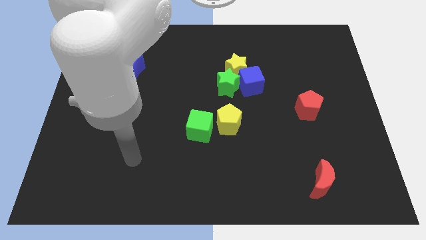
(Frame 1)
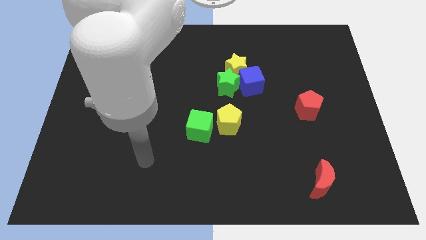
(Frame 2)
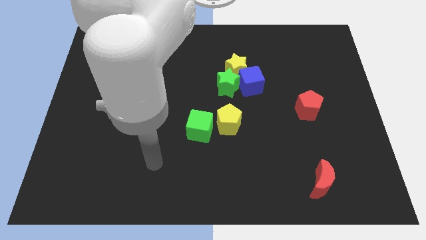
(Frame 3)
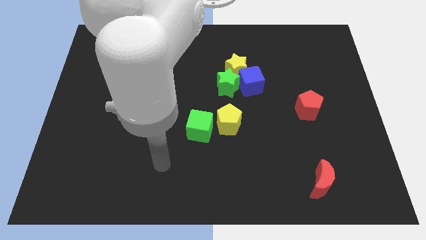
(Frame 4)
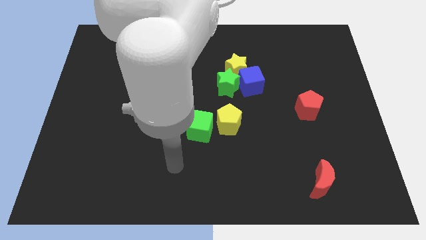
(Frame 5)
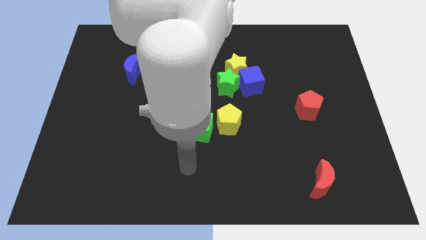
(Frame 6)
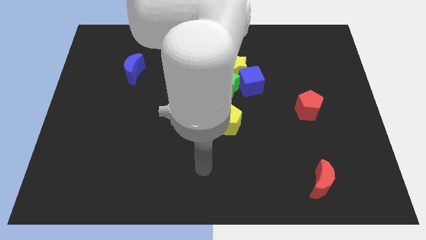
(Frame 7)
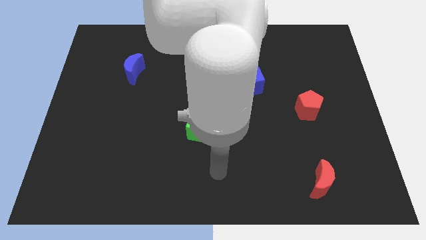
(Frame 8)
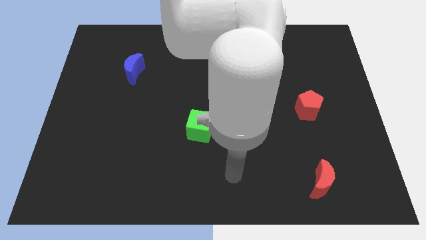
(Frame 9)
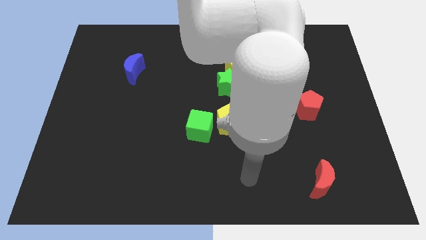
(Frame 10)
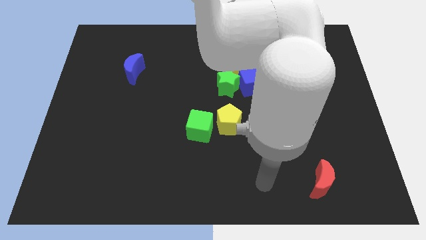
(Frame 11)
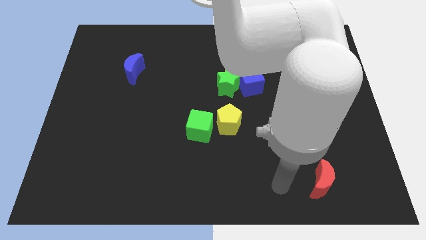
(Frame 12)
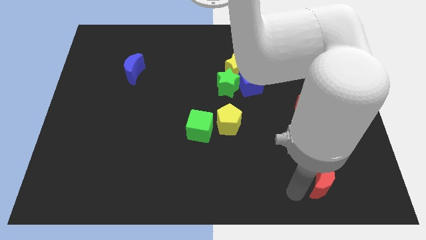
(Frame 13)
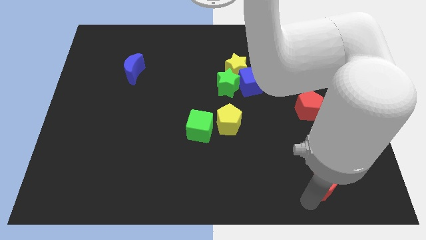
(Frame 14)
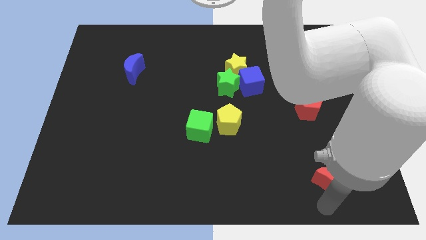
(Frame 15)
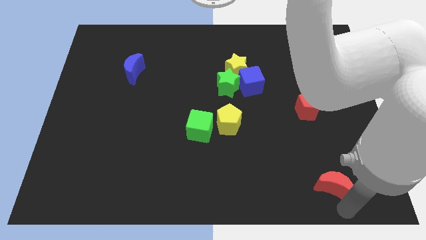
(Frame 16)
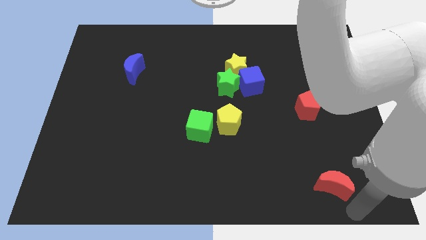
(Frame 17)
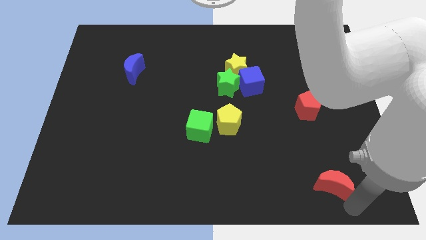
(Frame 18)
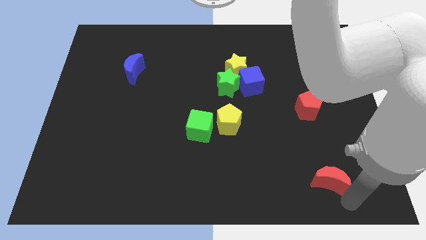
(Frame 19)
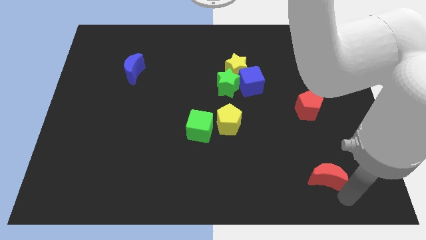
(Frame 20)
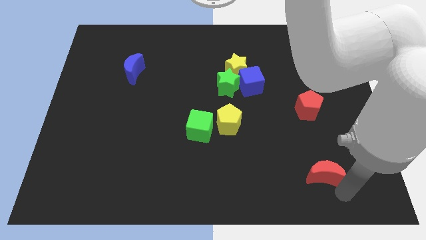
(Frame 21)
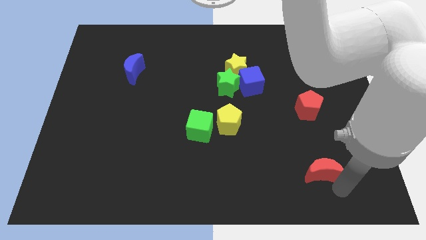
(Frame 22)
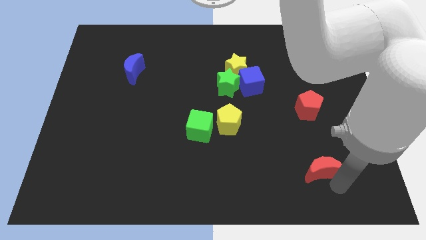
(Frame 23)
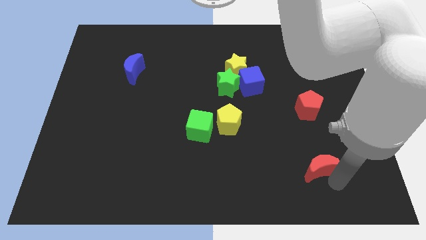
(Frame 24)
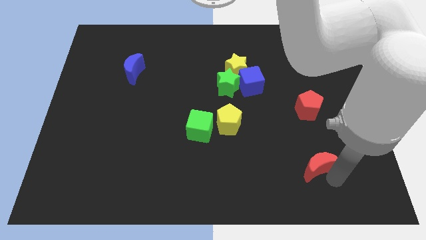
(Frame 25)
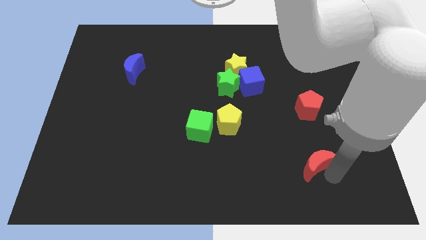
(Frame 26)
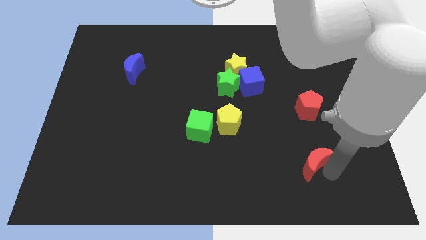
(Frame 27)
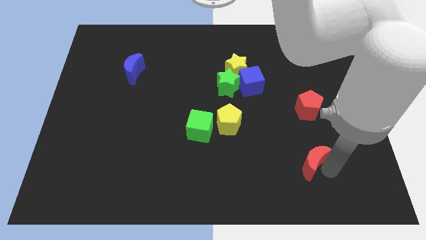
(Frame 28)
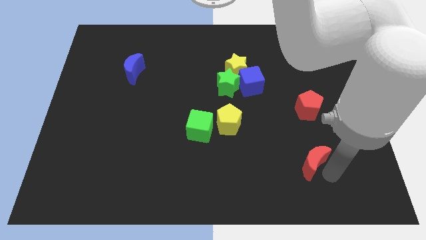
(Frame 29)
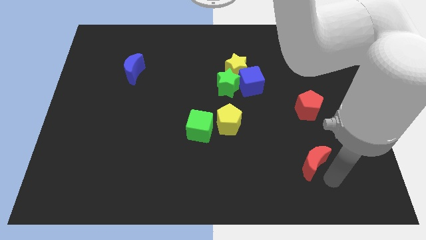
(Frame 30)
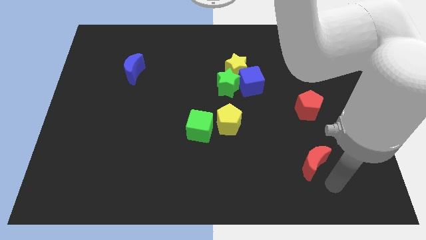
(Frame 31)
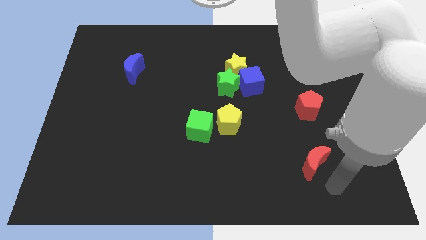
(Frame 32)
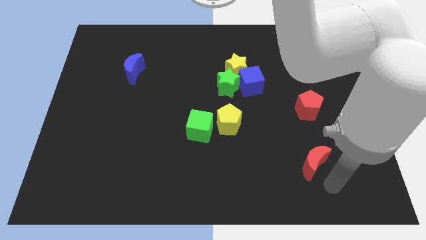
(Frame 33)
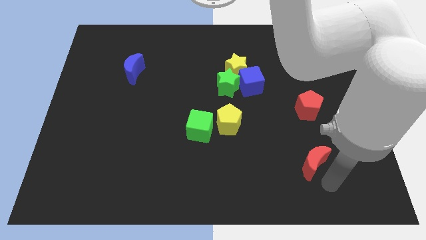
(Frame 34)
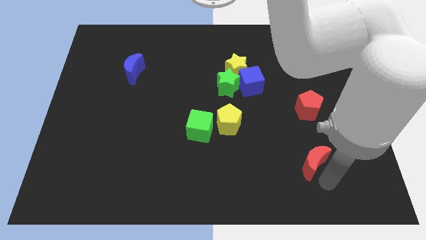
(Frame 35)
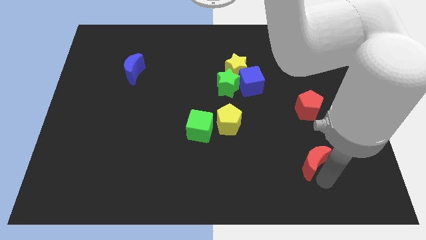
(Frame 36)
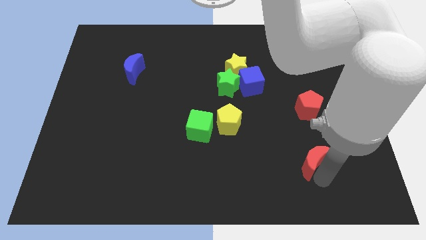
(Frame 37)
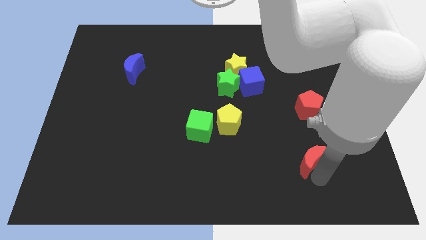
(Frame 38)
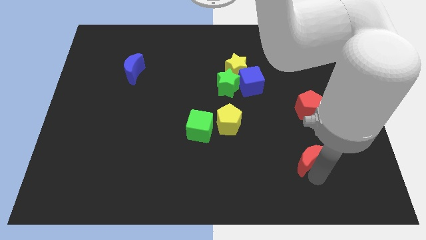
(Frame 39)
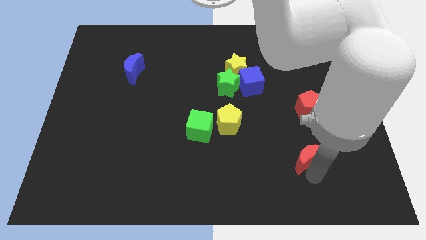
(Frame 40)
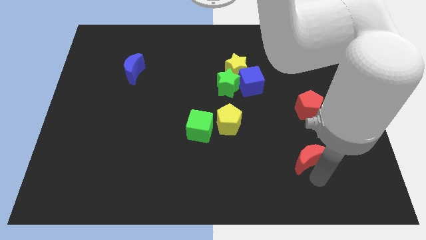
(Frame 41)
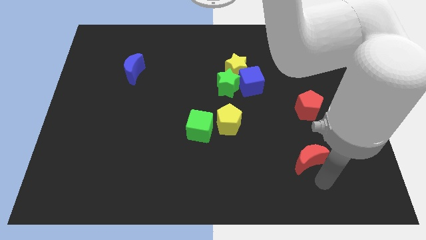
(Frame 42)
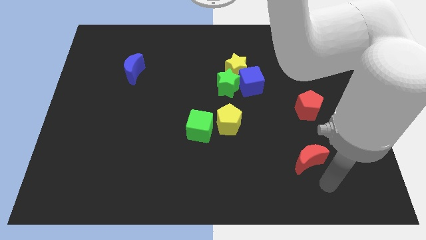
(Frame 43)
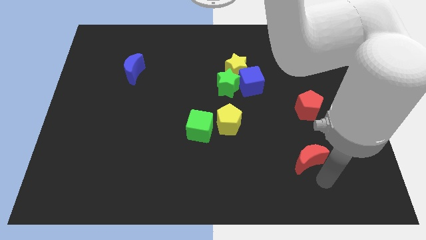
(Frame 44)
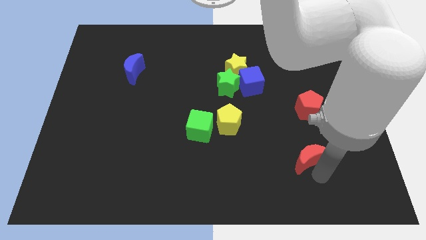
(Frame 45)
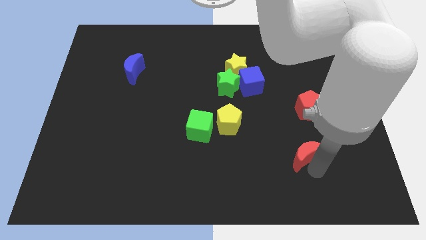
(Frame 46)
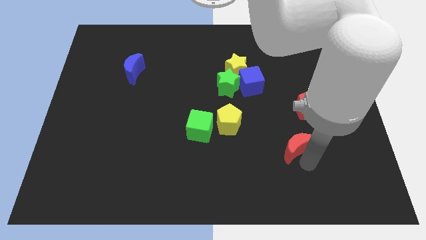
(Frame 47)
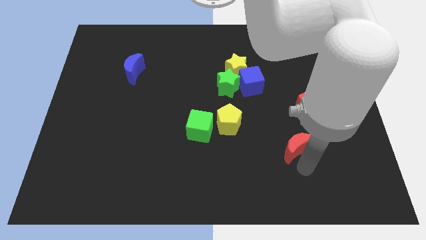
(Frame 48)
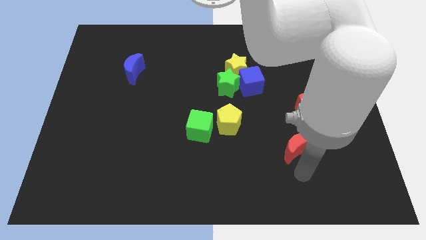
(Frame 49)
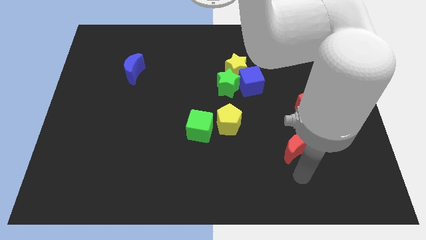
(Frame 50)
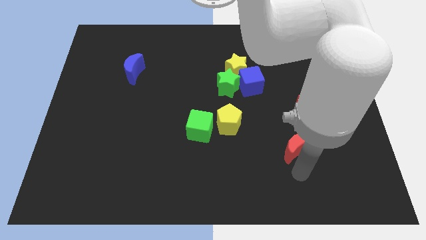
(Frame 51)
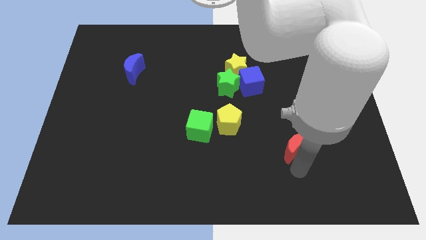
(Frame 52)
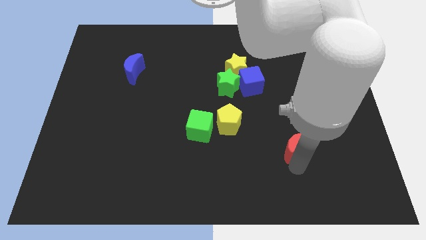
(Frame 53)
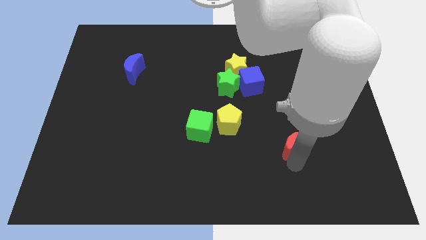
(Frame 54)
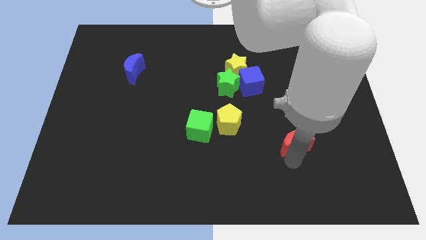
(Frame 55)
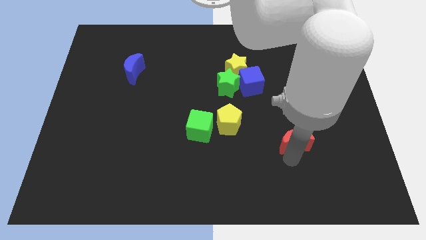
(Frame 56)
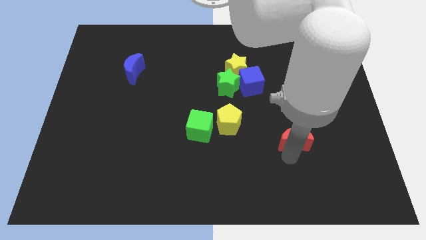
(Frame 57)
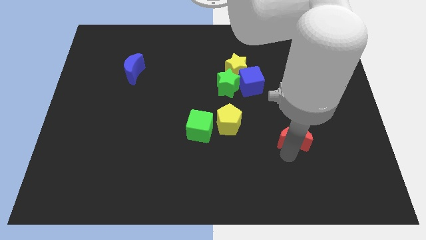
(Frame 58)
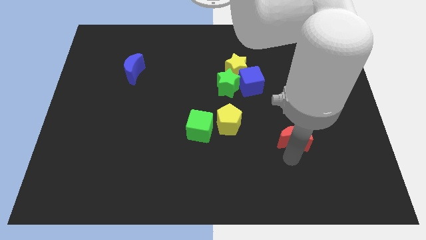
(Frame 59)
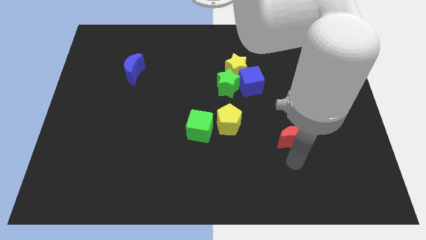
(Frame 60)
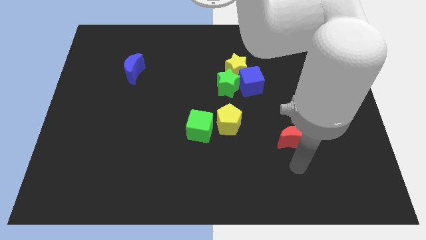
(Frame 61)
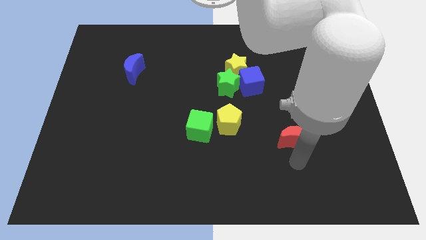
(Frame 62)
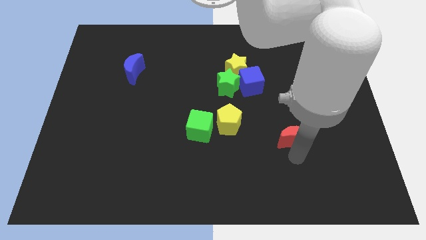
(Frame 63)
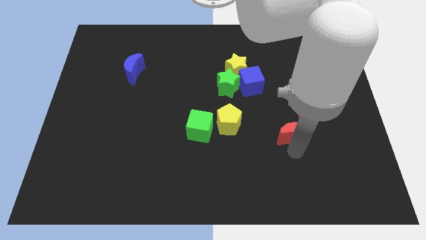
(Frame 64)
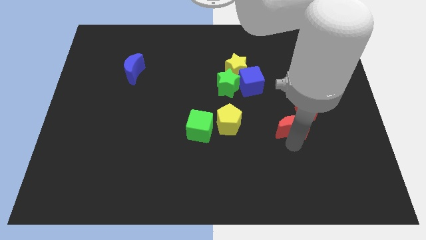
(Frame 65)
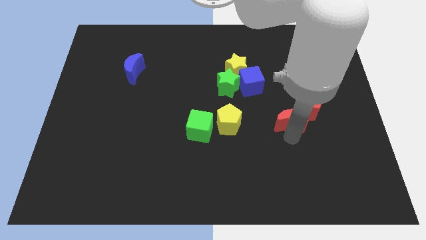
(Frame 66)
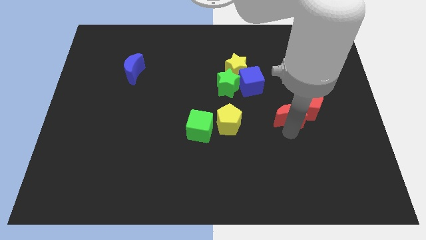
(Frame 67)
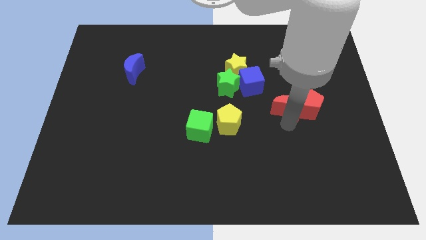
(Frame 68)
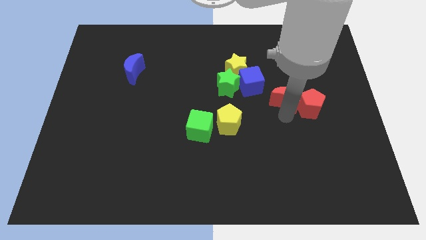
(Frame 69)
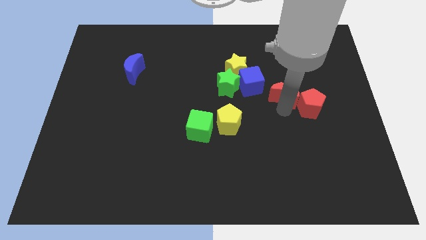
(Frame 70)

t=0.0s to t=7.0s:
push the red moon to the right side of the blue cube

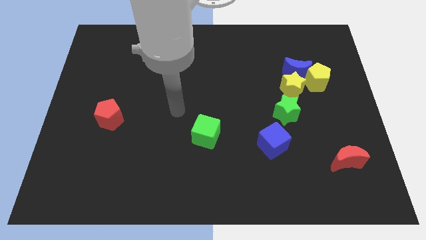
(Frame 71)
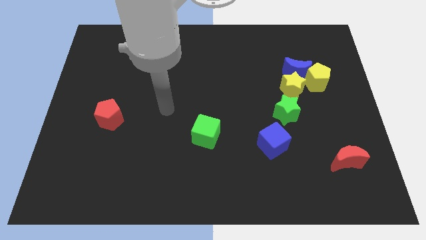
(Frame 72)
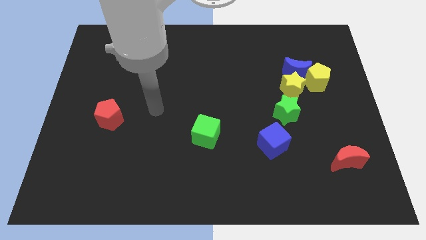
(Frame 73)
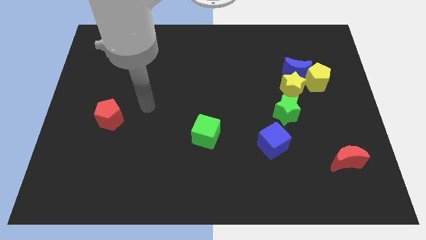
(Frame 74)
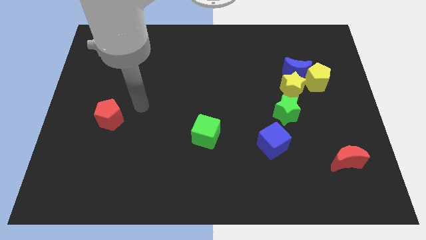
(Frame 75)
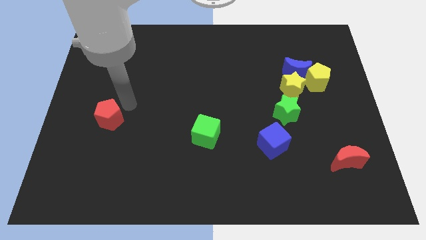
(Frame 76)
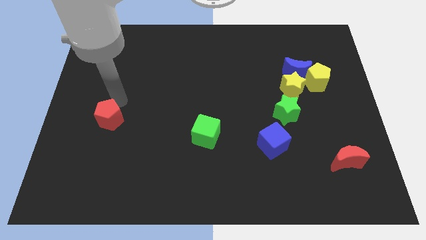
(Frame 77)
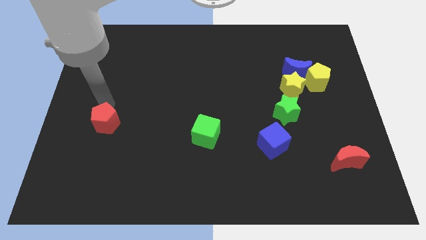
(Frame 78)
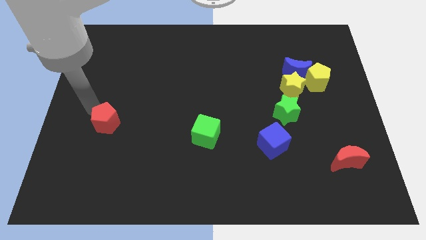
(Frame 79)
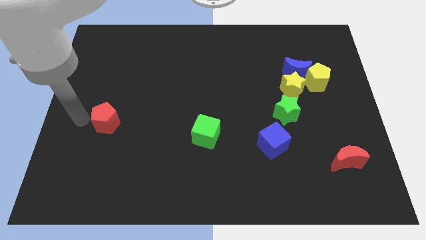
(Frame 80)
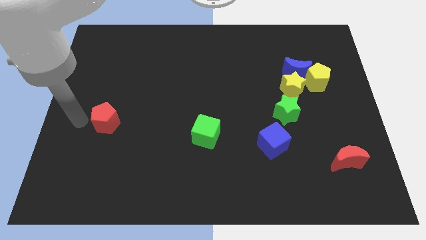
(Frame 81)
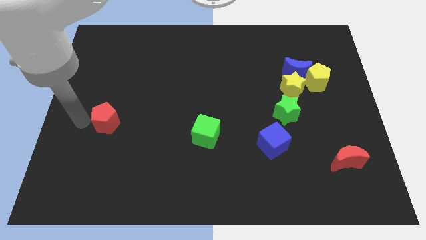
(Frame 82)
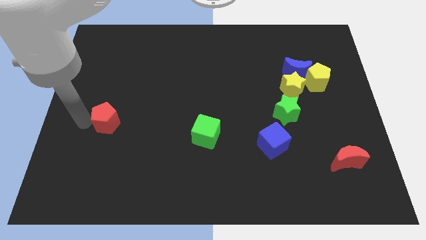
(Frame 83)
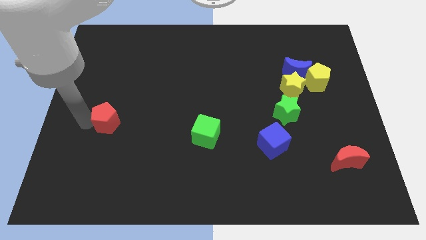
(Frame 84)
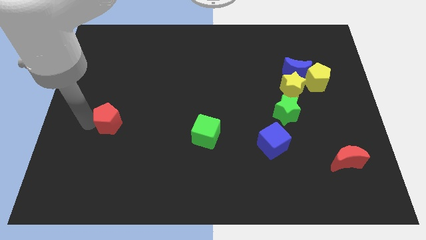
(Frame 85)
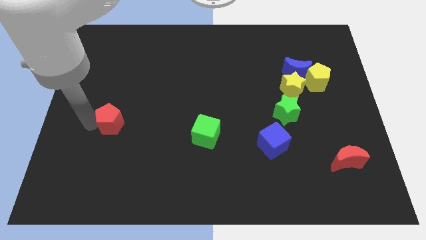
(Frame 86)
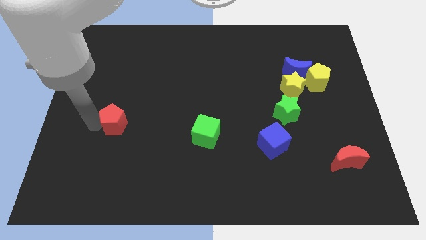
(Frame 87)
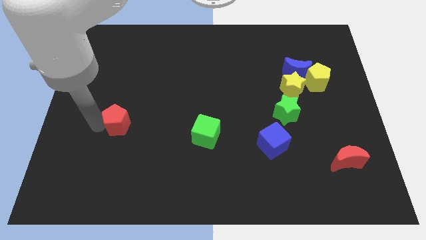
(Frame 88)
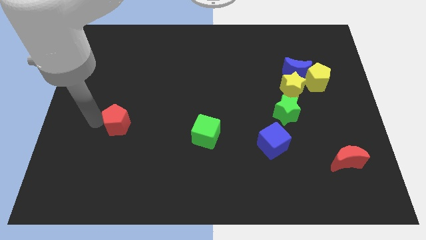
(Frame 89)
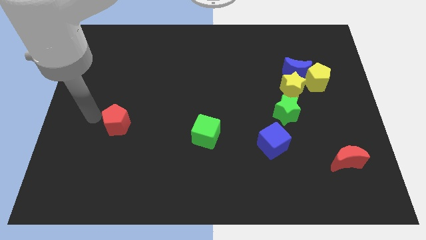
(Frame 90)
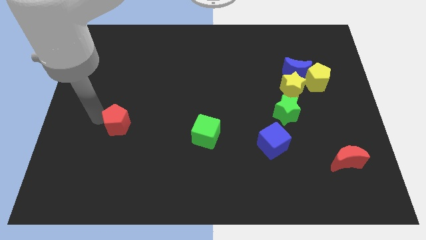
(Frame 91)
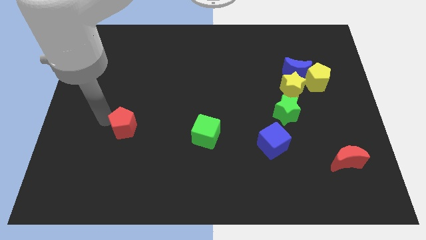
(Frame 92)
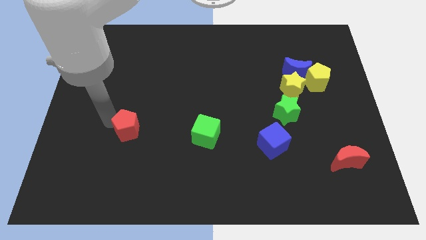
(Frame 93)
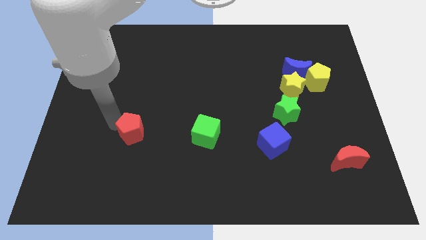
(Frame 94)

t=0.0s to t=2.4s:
put the red pentagon just left of the green cube
